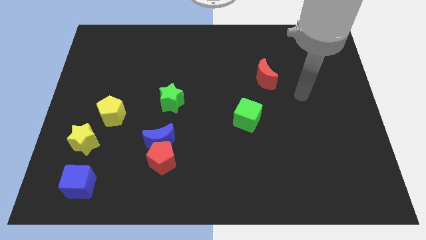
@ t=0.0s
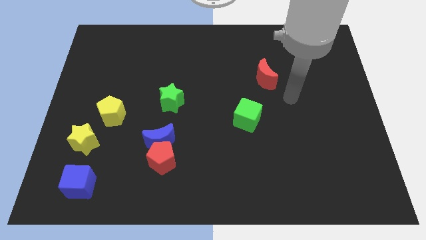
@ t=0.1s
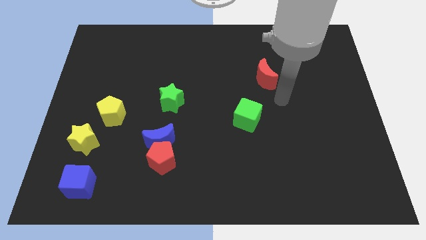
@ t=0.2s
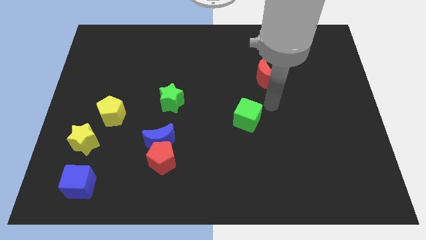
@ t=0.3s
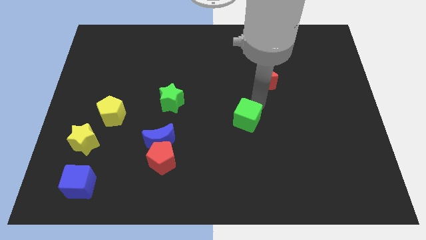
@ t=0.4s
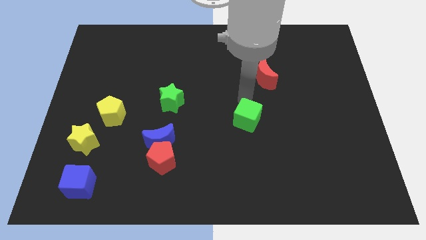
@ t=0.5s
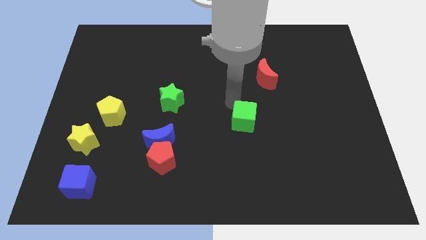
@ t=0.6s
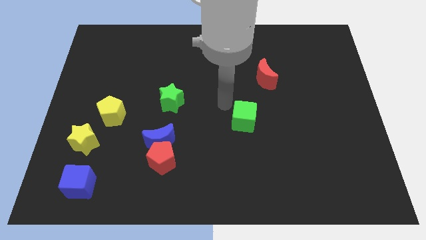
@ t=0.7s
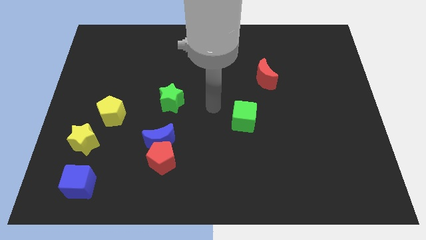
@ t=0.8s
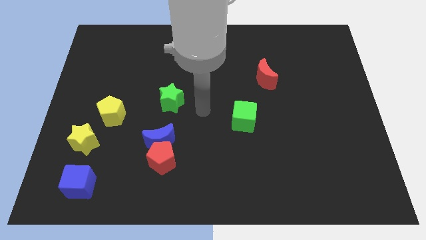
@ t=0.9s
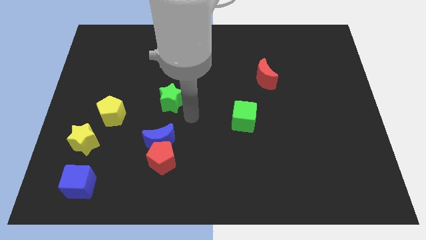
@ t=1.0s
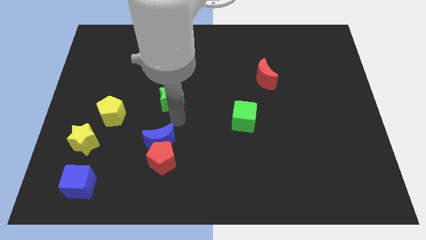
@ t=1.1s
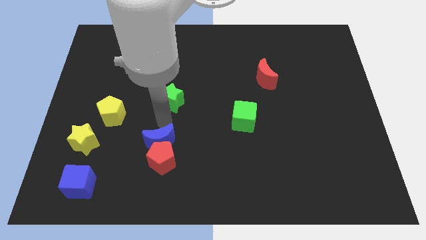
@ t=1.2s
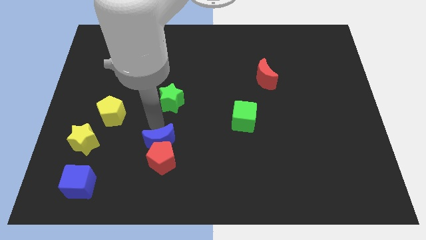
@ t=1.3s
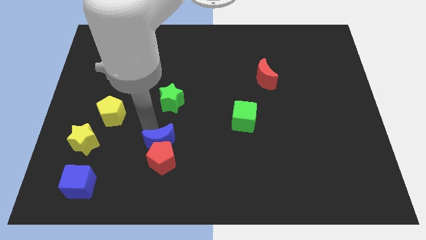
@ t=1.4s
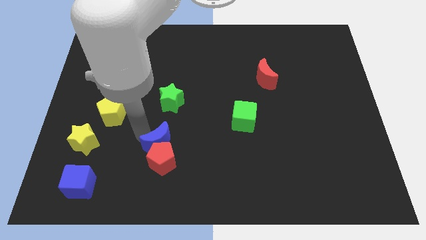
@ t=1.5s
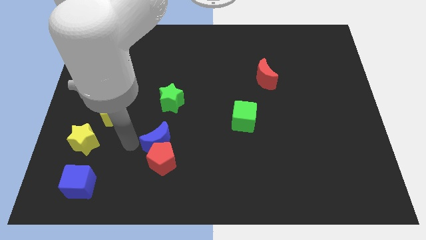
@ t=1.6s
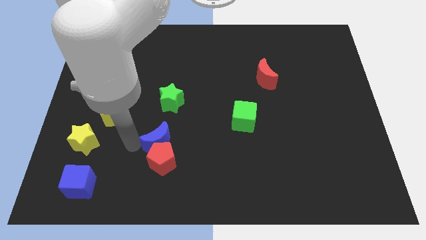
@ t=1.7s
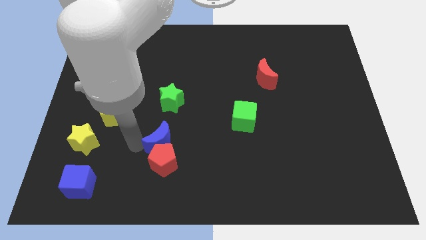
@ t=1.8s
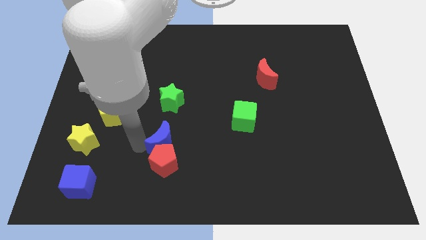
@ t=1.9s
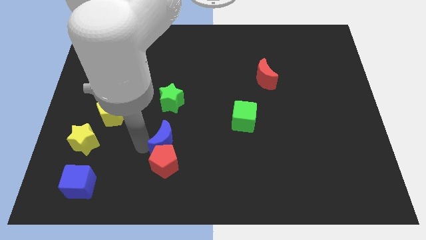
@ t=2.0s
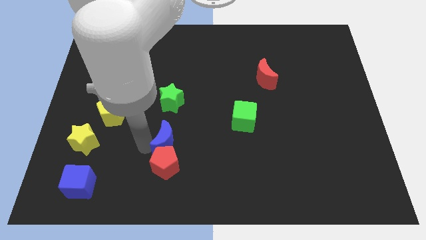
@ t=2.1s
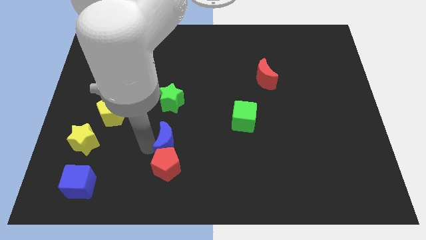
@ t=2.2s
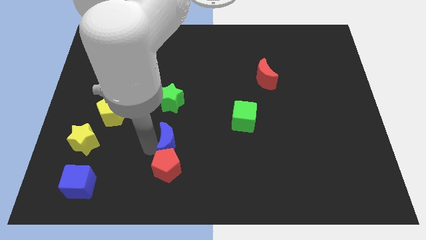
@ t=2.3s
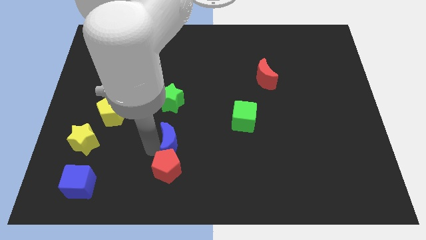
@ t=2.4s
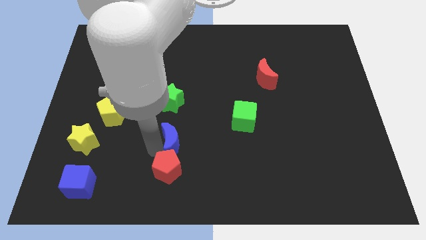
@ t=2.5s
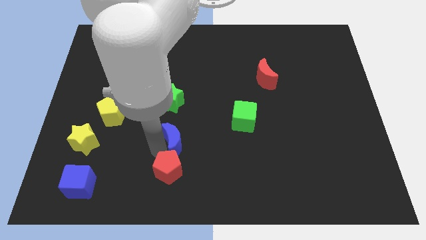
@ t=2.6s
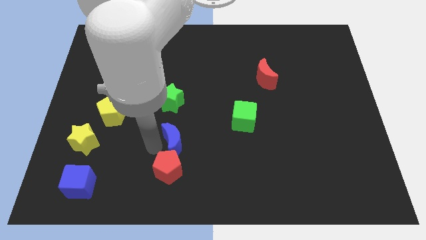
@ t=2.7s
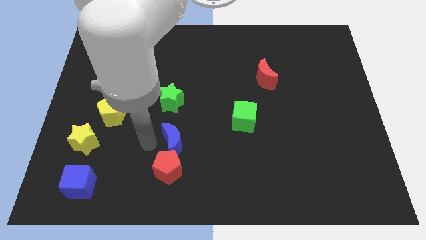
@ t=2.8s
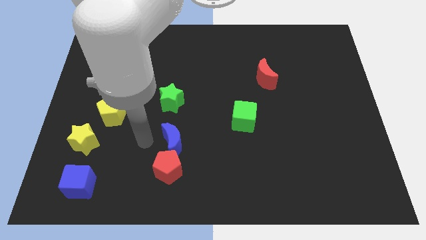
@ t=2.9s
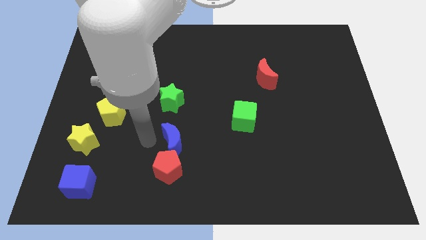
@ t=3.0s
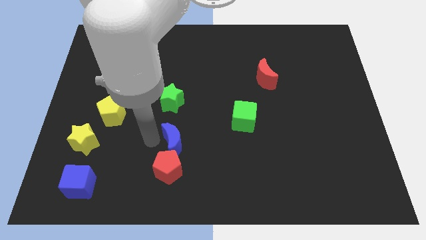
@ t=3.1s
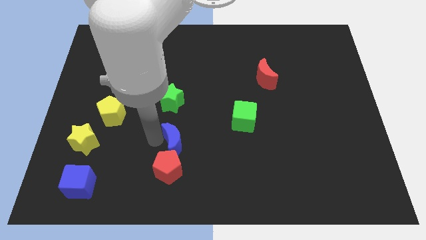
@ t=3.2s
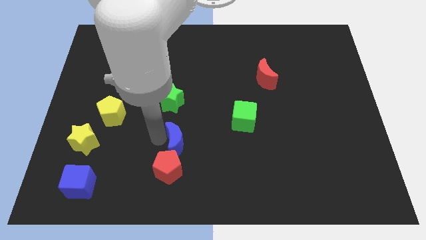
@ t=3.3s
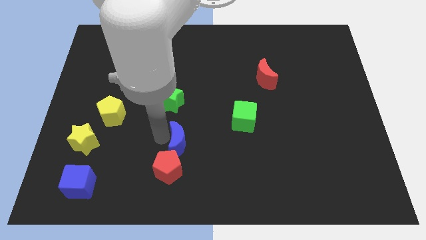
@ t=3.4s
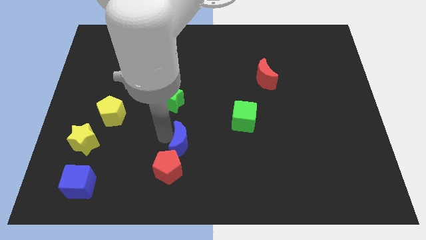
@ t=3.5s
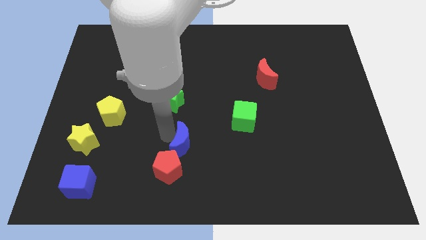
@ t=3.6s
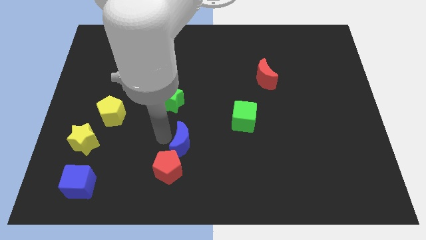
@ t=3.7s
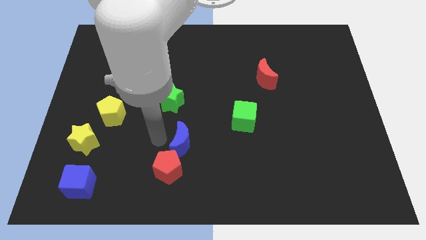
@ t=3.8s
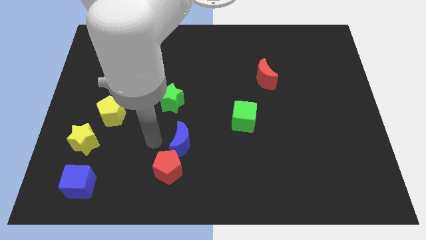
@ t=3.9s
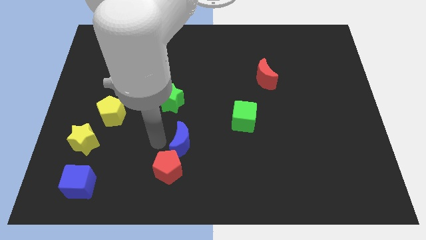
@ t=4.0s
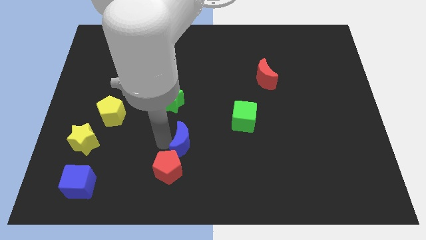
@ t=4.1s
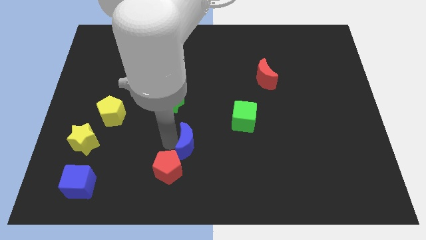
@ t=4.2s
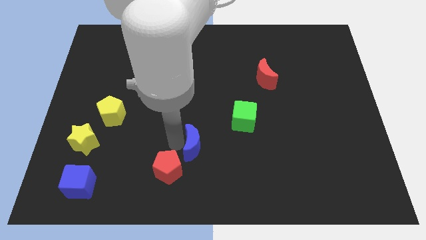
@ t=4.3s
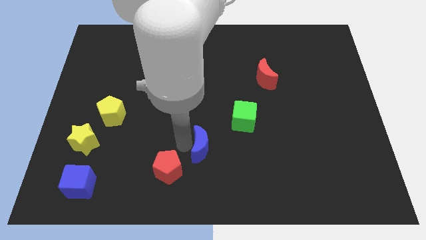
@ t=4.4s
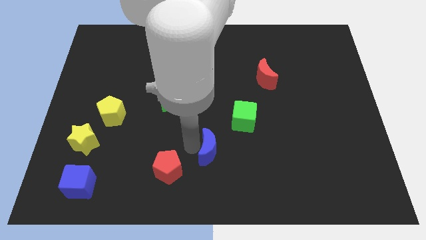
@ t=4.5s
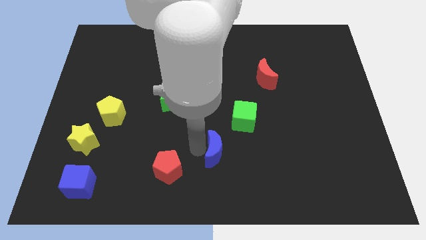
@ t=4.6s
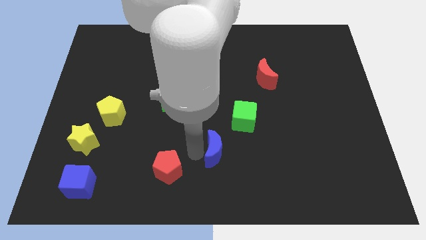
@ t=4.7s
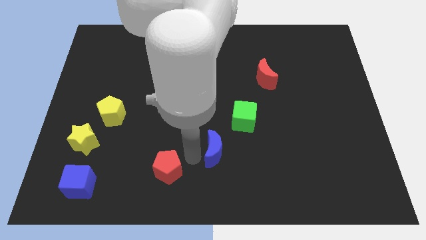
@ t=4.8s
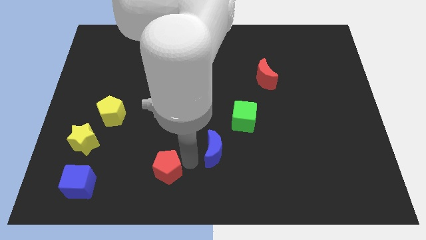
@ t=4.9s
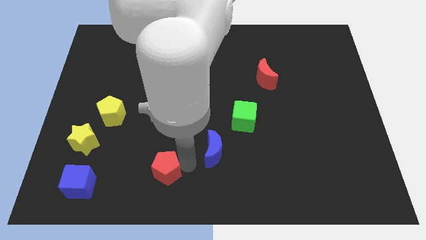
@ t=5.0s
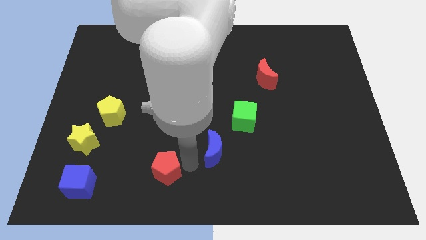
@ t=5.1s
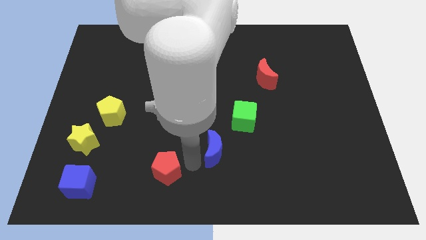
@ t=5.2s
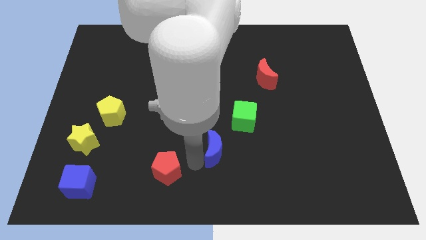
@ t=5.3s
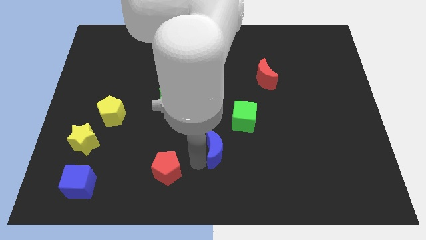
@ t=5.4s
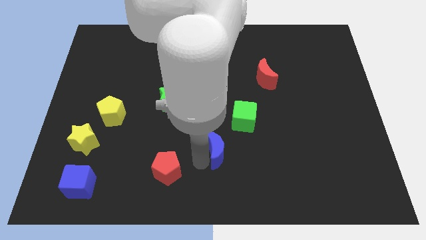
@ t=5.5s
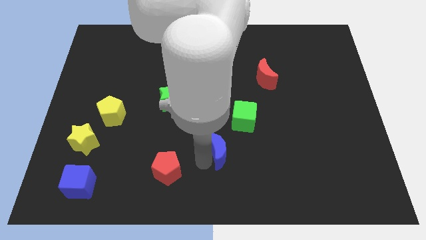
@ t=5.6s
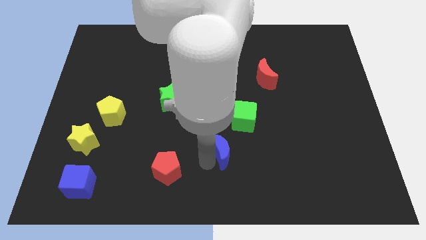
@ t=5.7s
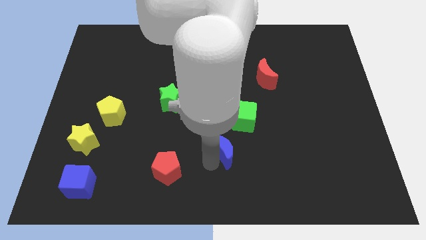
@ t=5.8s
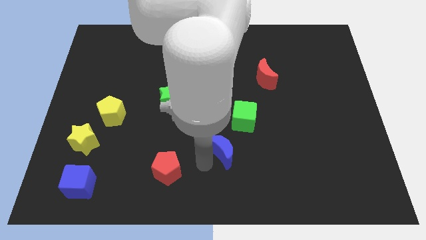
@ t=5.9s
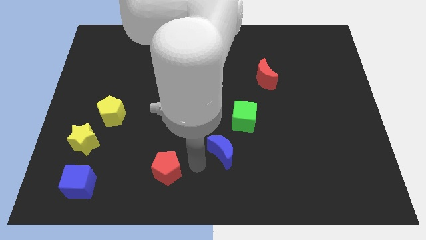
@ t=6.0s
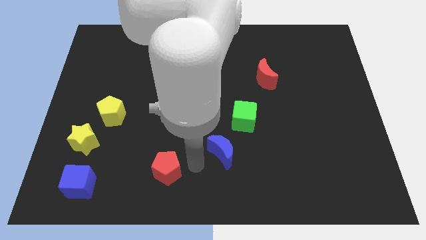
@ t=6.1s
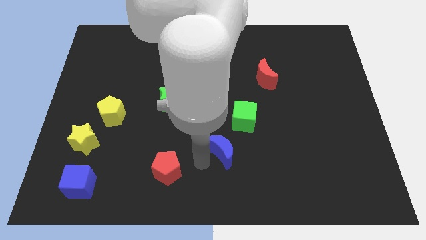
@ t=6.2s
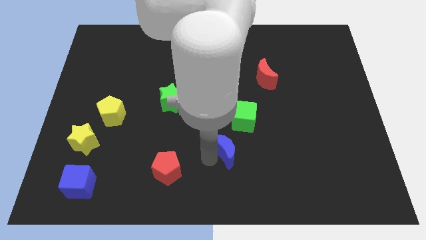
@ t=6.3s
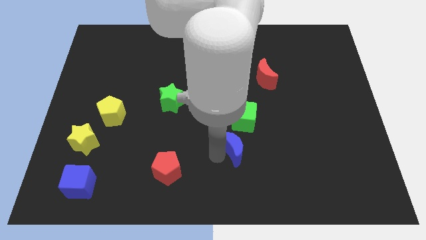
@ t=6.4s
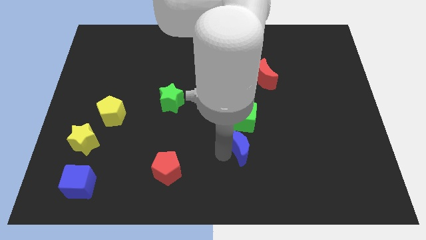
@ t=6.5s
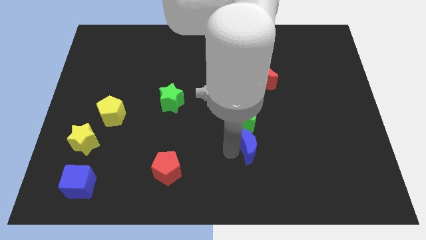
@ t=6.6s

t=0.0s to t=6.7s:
put the blue moon diagonally down and to the right of the green cube

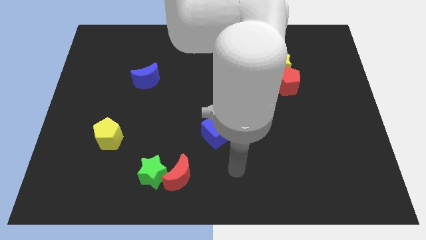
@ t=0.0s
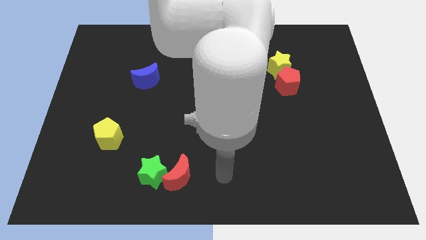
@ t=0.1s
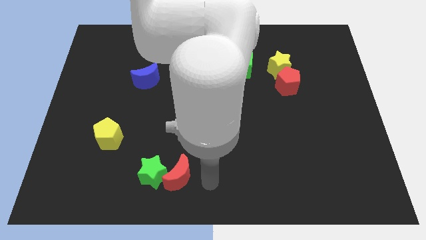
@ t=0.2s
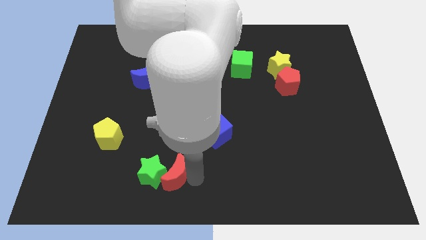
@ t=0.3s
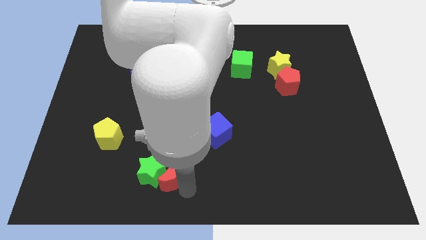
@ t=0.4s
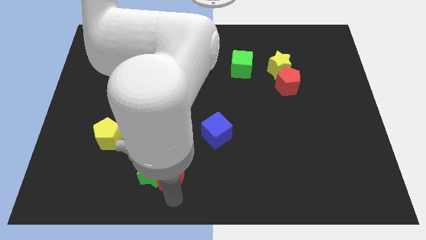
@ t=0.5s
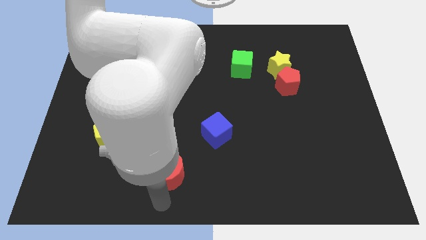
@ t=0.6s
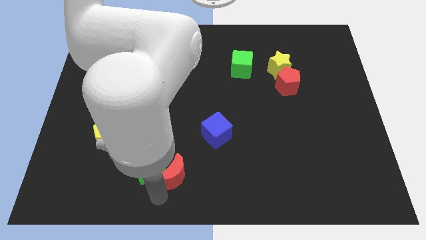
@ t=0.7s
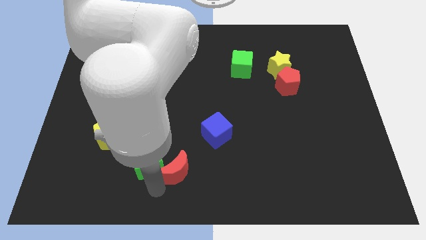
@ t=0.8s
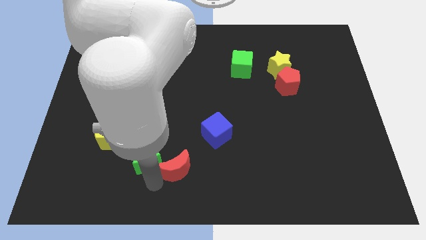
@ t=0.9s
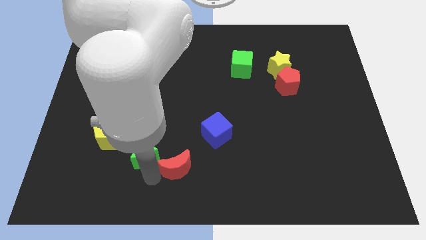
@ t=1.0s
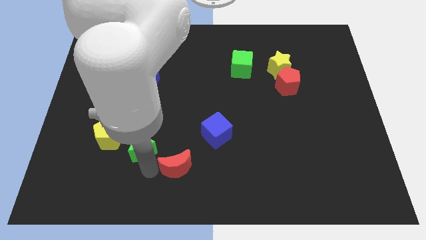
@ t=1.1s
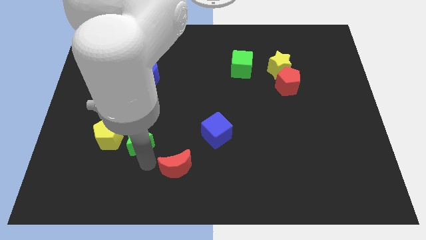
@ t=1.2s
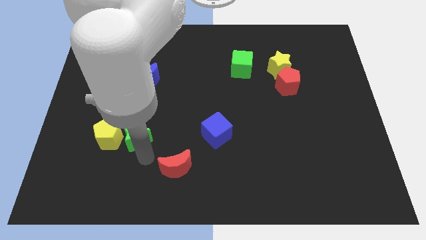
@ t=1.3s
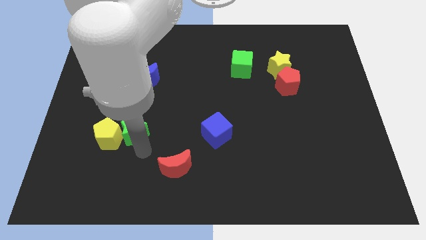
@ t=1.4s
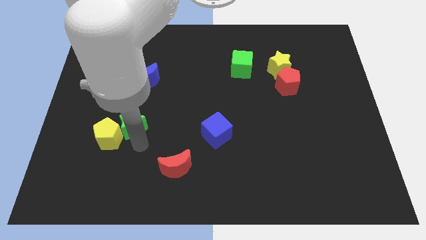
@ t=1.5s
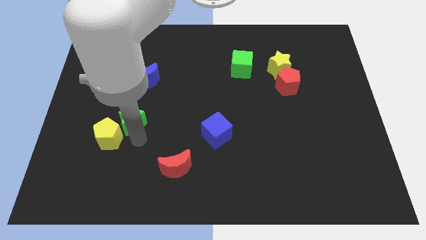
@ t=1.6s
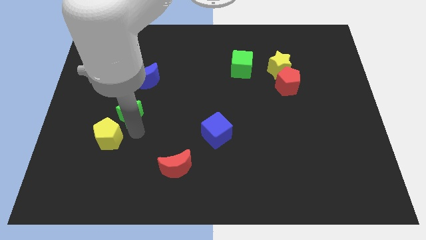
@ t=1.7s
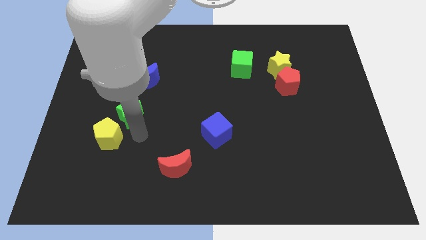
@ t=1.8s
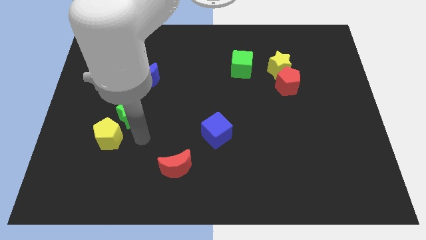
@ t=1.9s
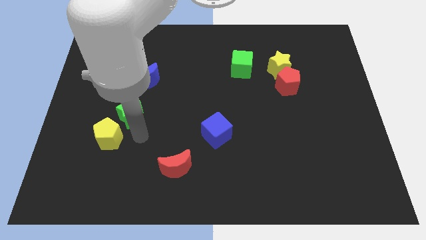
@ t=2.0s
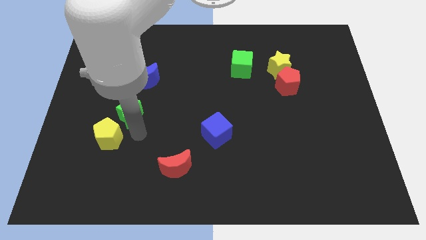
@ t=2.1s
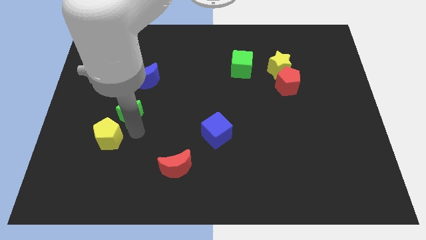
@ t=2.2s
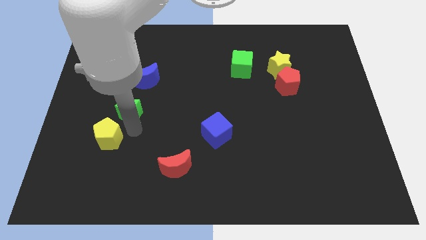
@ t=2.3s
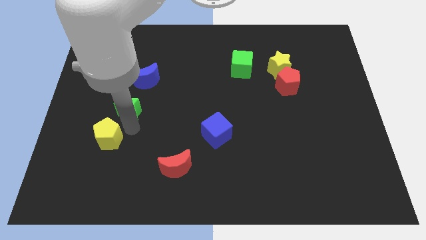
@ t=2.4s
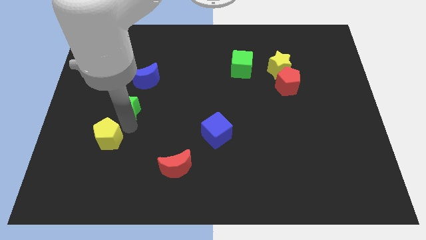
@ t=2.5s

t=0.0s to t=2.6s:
slide the green star to the bottom left side of the blue moon
